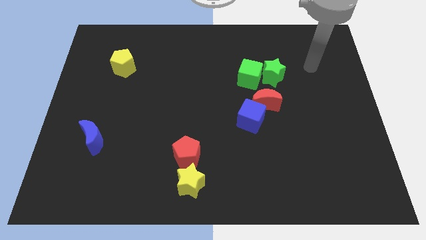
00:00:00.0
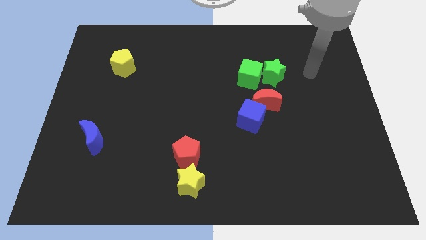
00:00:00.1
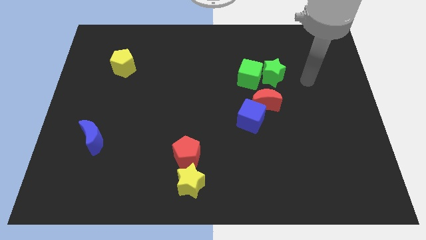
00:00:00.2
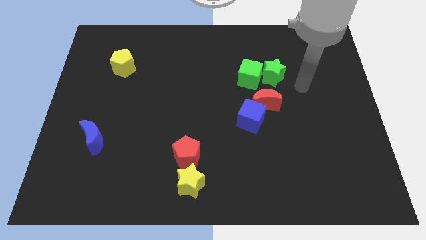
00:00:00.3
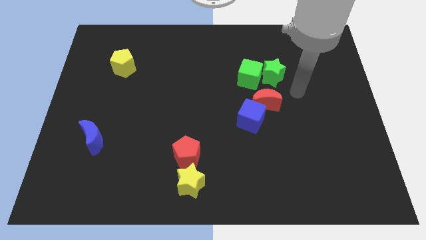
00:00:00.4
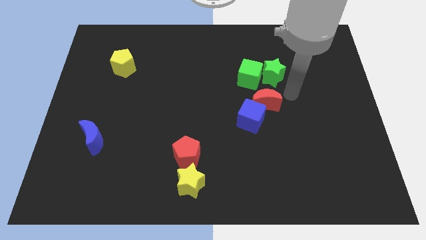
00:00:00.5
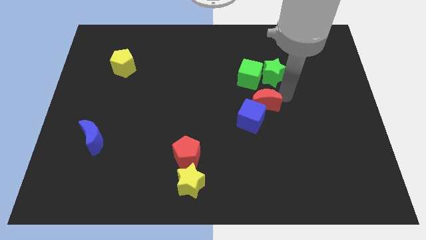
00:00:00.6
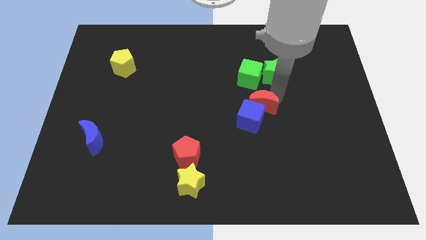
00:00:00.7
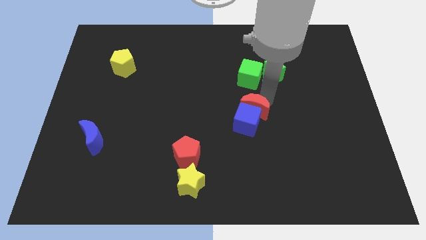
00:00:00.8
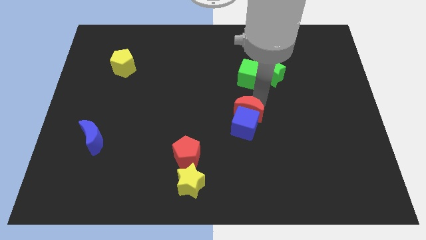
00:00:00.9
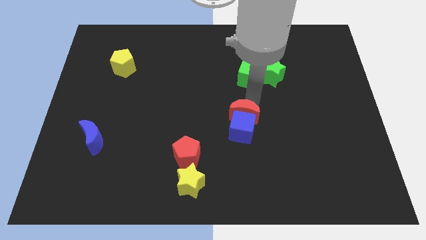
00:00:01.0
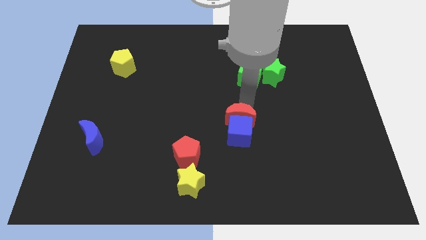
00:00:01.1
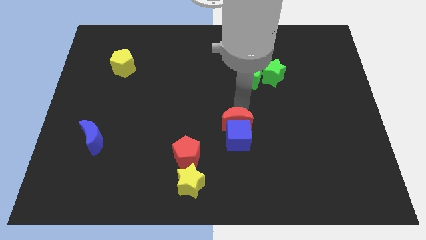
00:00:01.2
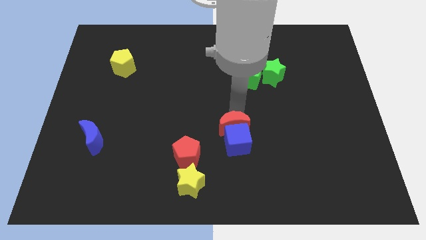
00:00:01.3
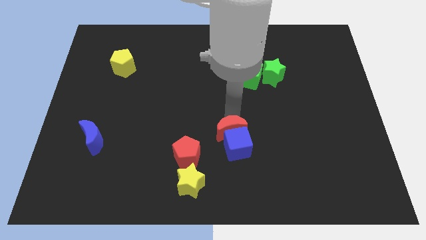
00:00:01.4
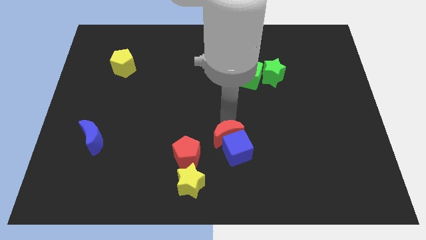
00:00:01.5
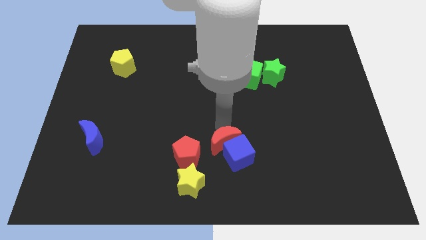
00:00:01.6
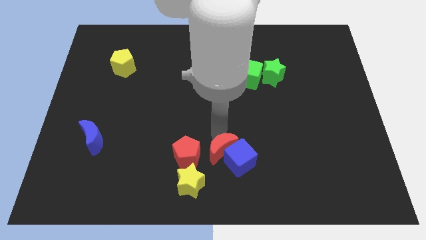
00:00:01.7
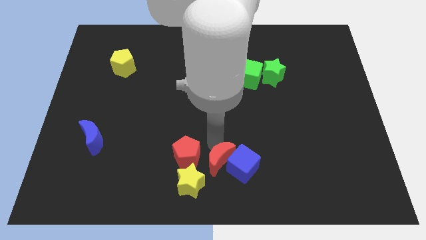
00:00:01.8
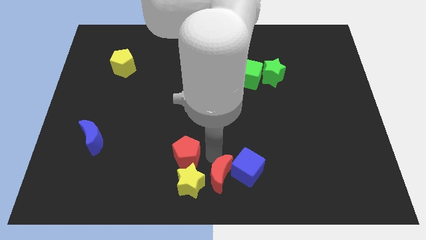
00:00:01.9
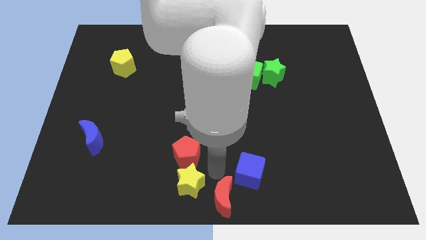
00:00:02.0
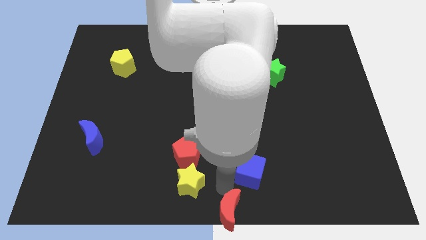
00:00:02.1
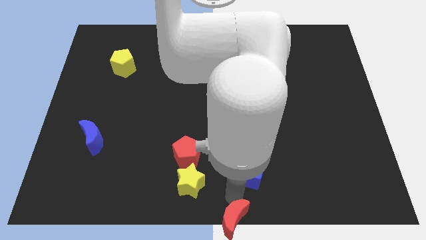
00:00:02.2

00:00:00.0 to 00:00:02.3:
separate the blue cube from the red moon

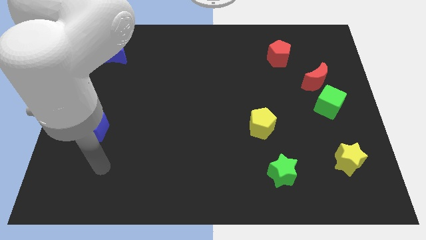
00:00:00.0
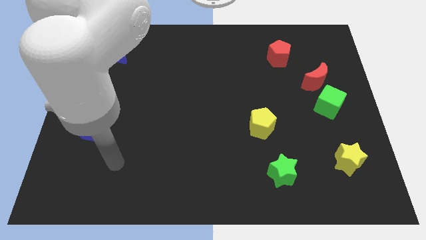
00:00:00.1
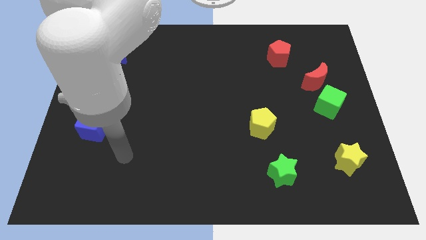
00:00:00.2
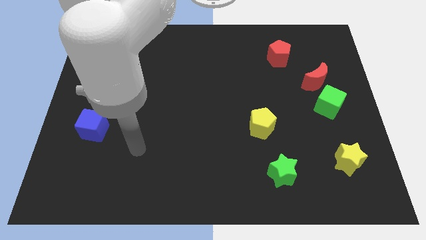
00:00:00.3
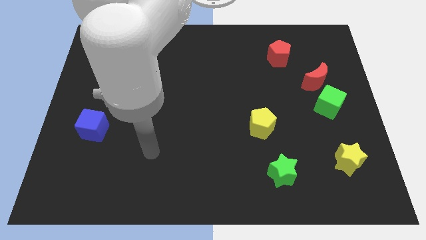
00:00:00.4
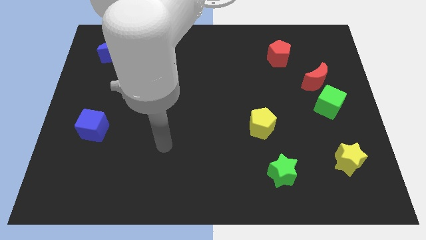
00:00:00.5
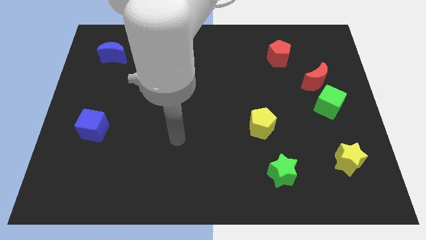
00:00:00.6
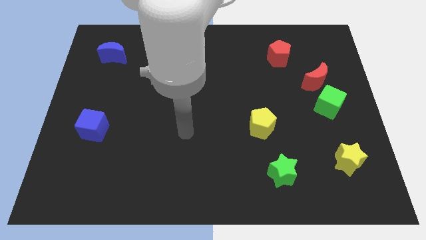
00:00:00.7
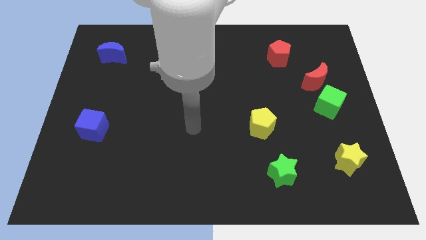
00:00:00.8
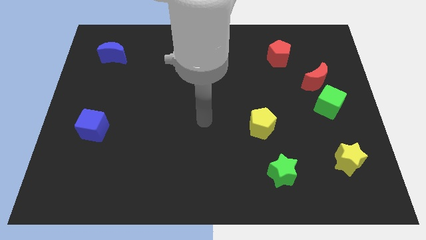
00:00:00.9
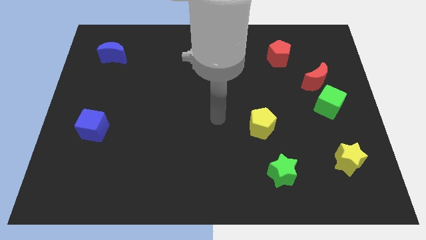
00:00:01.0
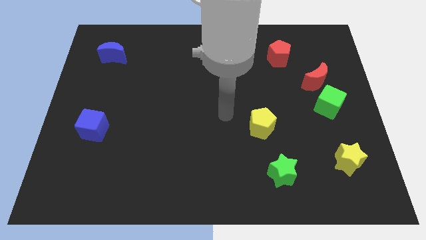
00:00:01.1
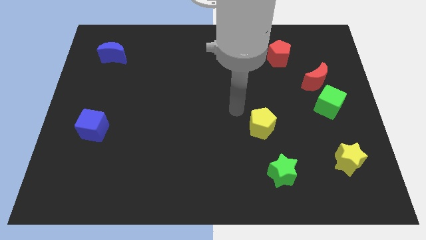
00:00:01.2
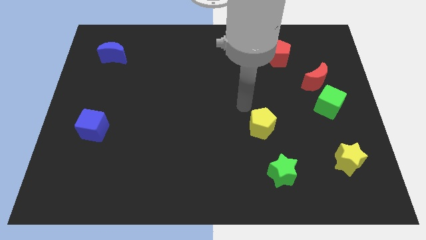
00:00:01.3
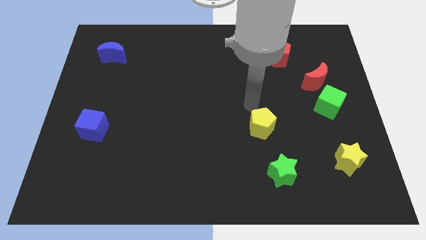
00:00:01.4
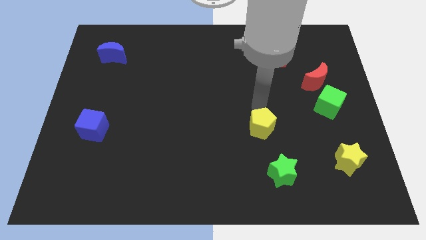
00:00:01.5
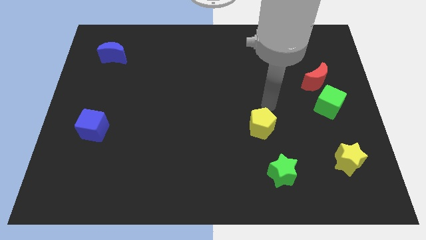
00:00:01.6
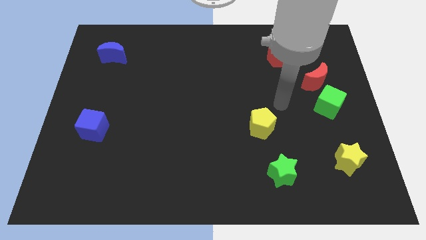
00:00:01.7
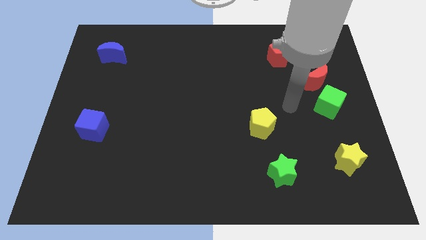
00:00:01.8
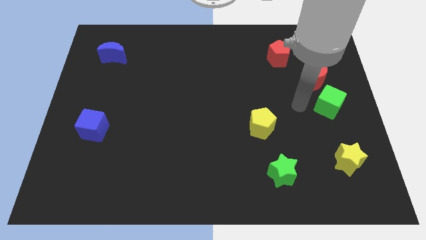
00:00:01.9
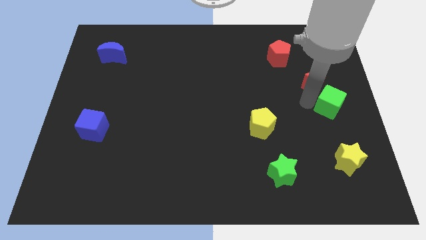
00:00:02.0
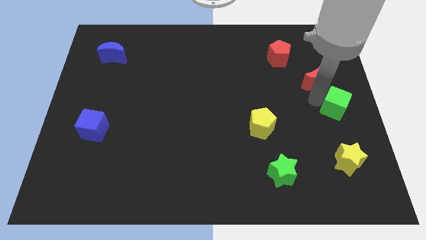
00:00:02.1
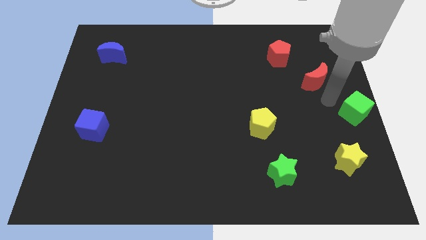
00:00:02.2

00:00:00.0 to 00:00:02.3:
separate the red moon from the green cube

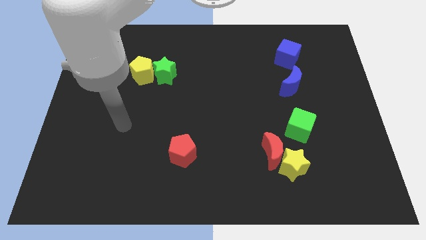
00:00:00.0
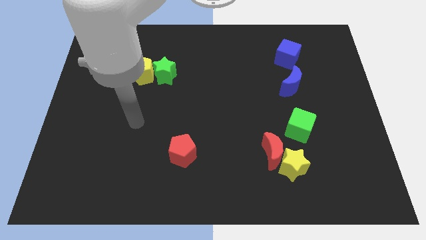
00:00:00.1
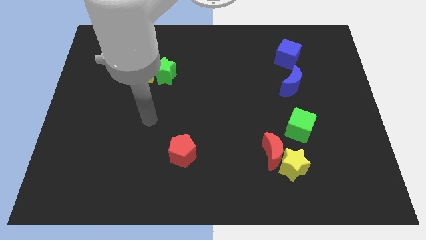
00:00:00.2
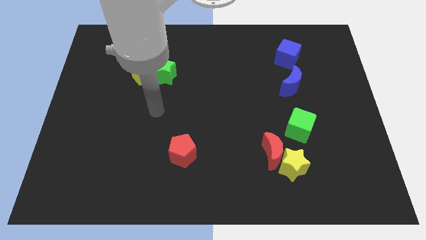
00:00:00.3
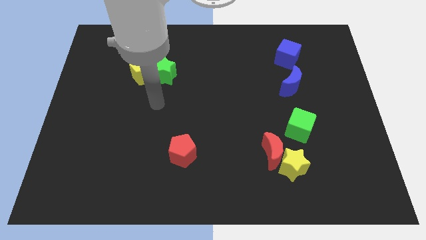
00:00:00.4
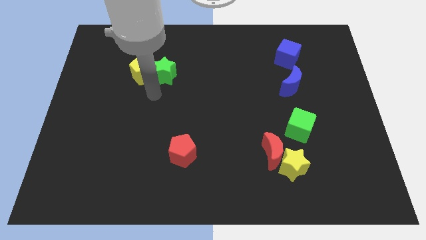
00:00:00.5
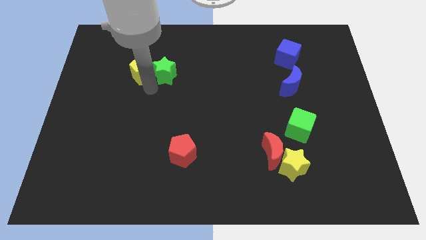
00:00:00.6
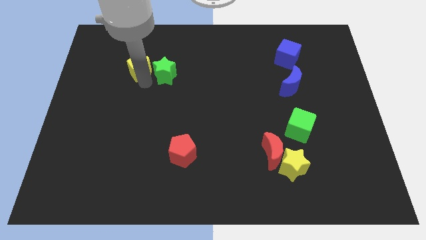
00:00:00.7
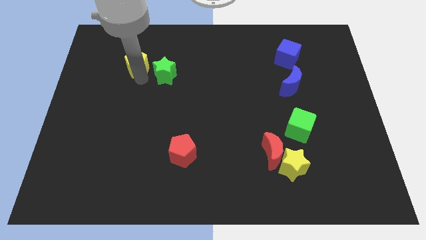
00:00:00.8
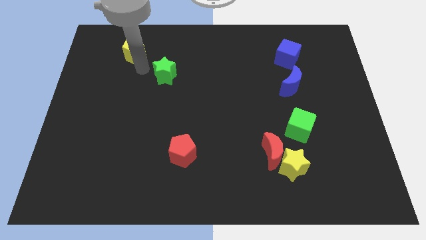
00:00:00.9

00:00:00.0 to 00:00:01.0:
separate the green star from the yellow pentagon

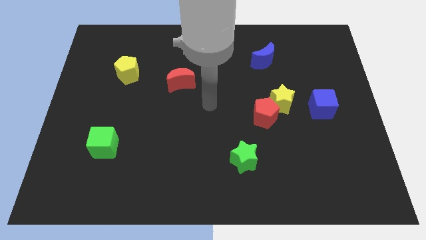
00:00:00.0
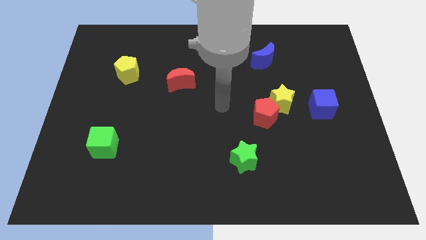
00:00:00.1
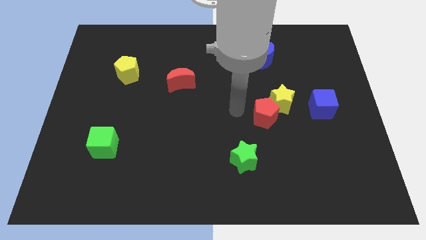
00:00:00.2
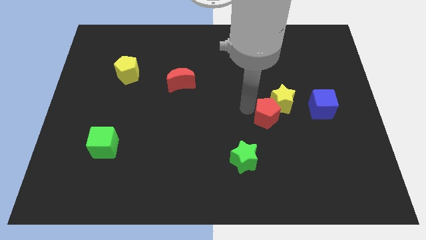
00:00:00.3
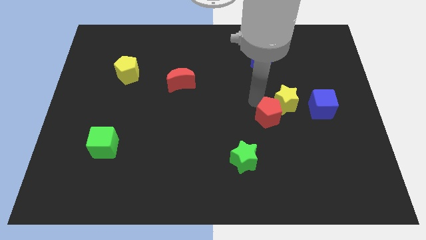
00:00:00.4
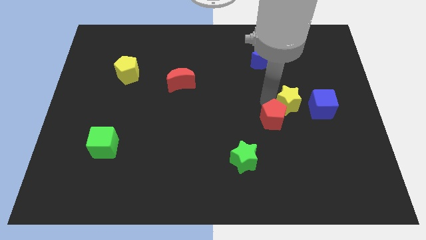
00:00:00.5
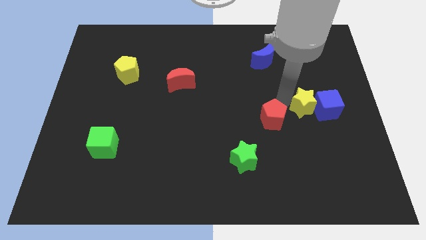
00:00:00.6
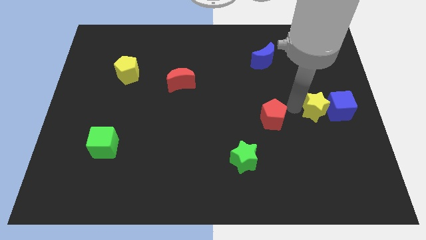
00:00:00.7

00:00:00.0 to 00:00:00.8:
move the red pentagon away from the yellow star

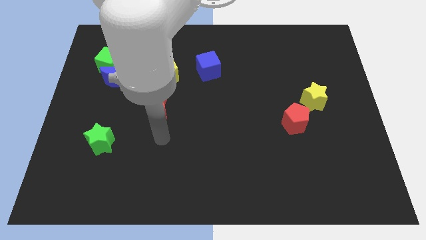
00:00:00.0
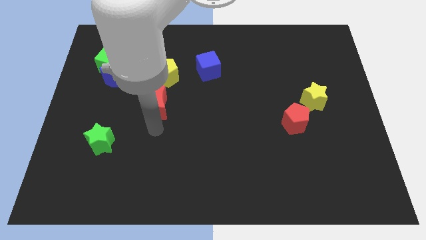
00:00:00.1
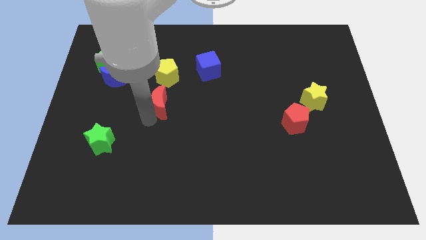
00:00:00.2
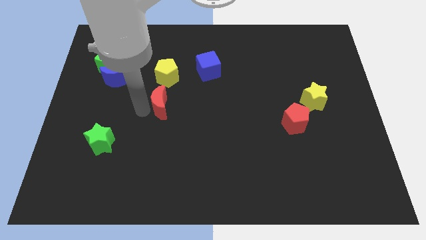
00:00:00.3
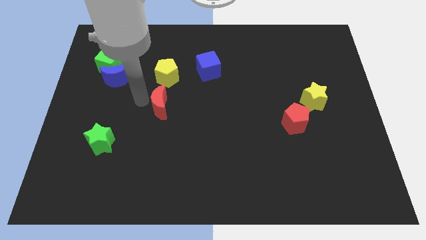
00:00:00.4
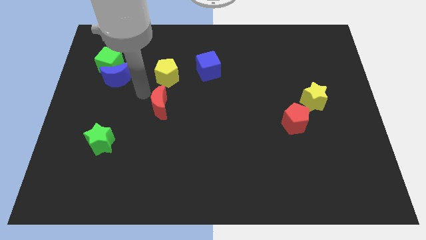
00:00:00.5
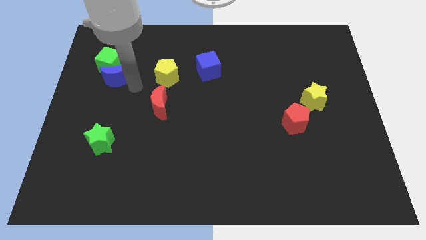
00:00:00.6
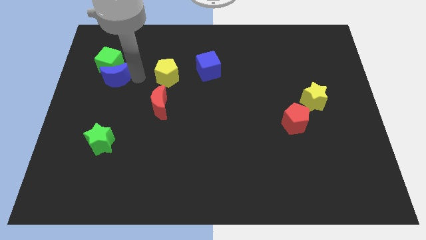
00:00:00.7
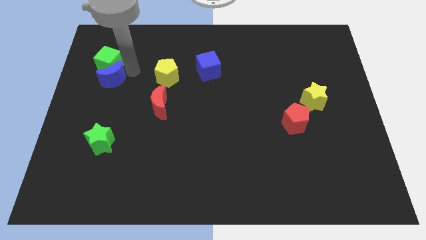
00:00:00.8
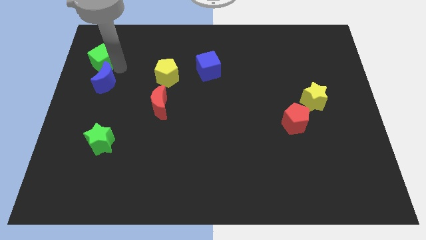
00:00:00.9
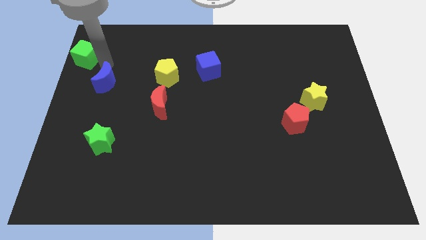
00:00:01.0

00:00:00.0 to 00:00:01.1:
pull the blue moon apart from the green cube

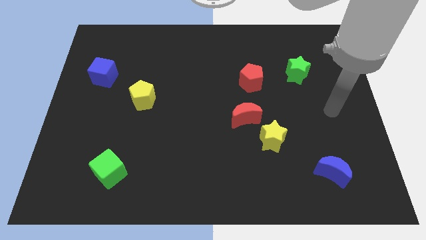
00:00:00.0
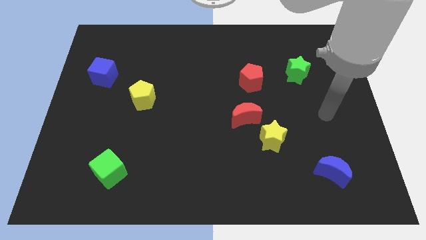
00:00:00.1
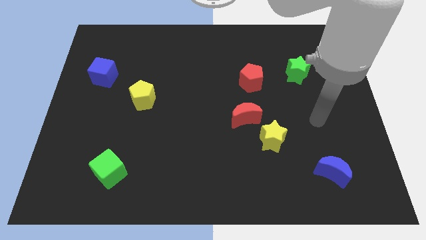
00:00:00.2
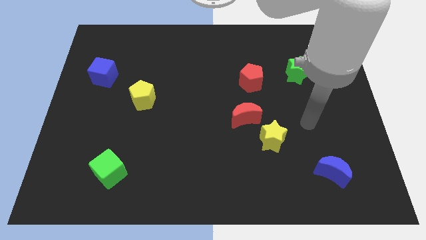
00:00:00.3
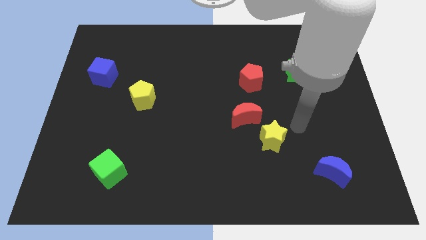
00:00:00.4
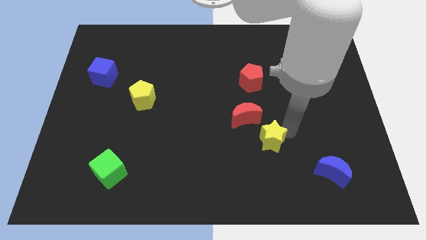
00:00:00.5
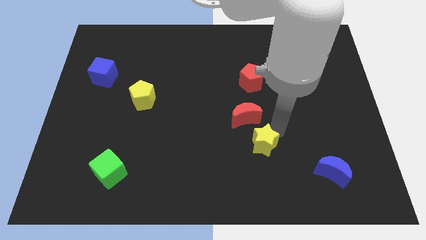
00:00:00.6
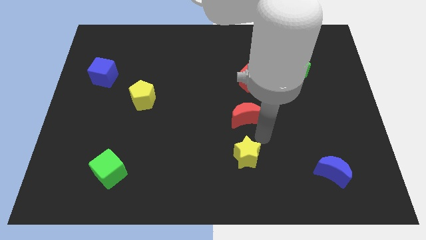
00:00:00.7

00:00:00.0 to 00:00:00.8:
separate the red moon from the yellow star

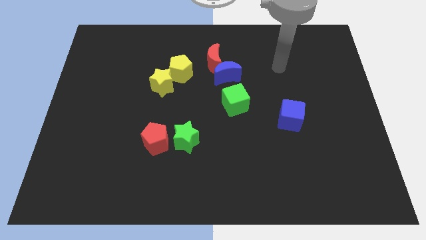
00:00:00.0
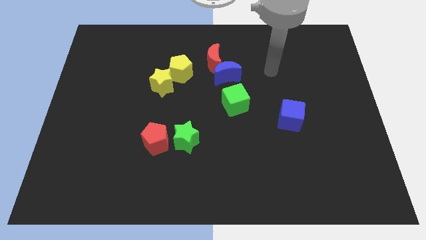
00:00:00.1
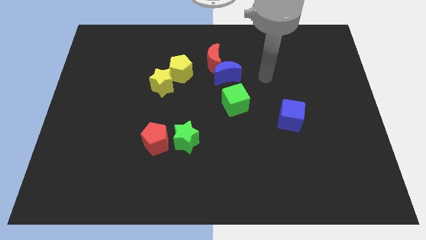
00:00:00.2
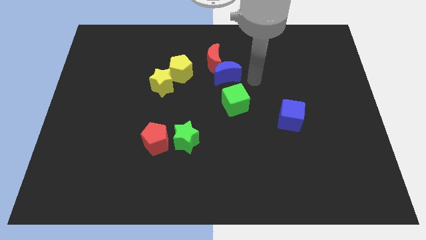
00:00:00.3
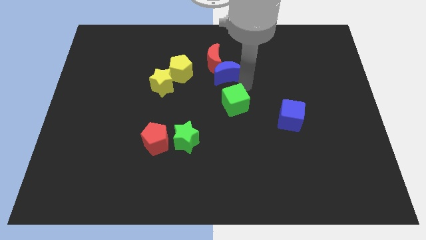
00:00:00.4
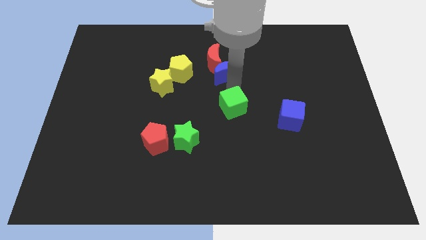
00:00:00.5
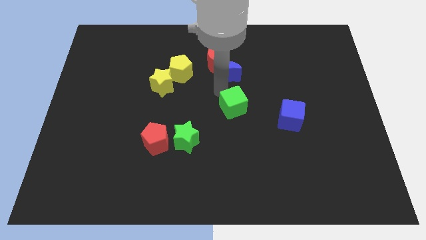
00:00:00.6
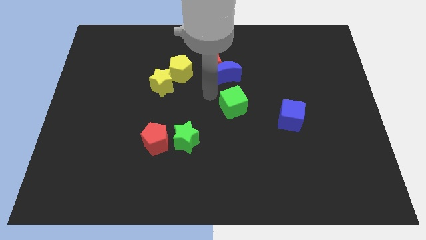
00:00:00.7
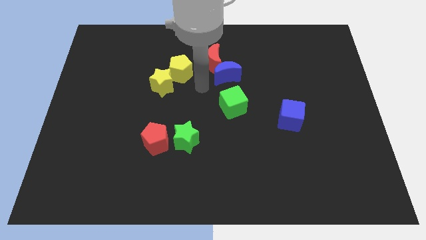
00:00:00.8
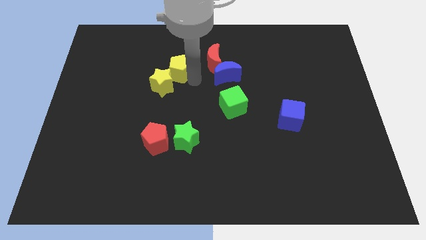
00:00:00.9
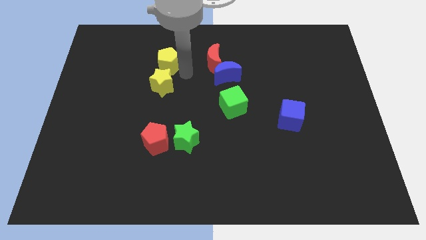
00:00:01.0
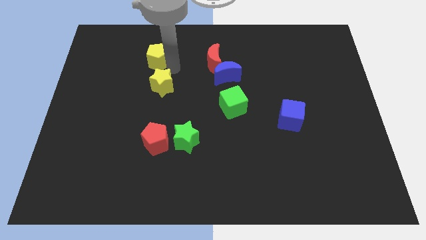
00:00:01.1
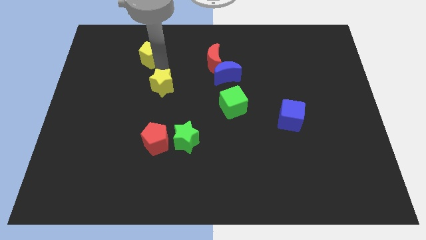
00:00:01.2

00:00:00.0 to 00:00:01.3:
pull the yellow star apart from the yellow pentagon
